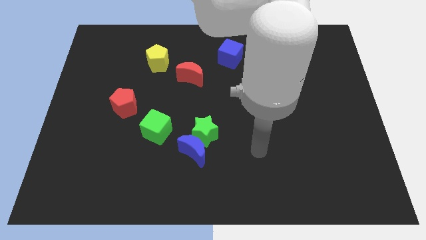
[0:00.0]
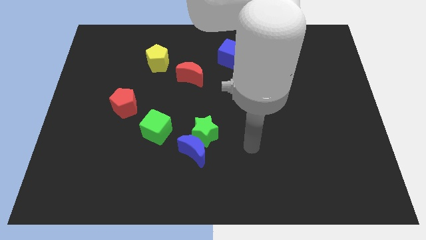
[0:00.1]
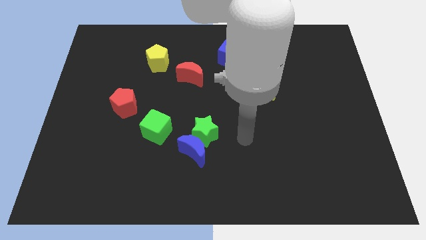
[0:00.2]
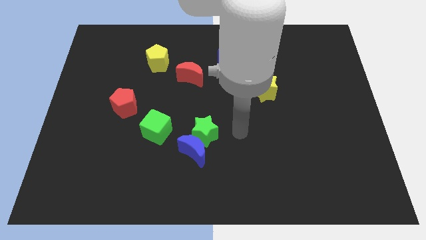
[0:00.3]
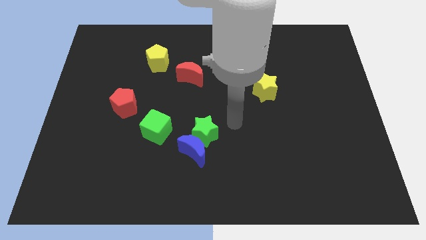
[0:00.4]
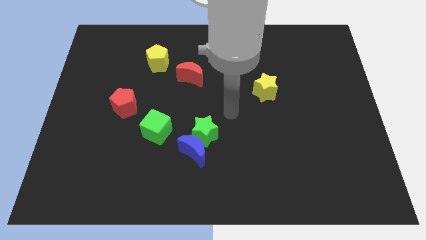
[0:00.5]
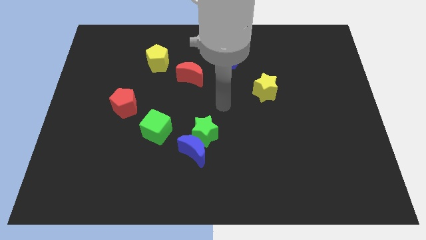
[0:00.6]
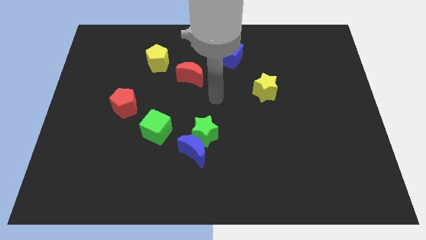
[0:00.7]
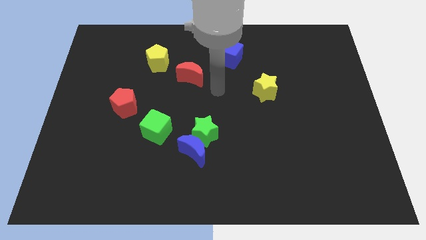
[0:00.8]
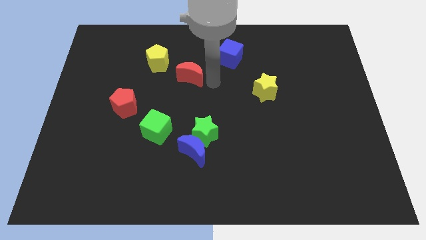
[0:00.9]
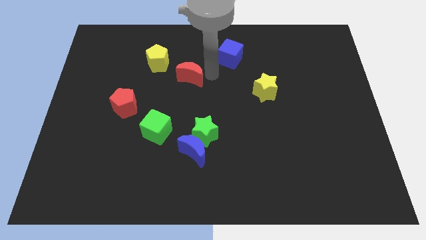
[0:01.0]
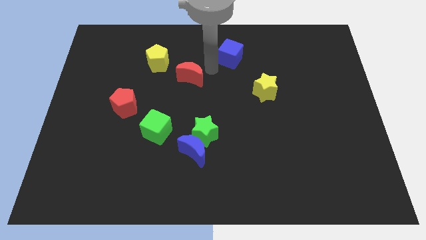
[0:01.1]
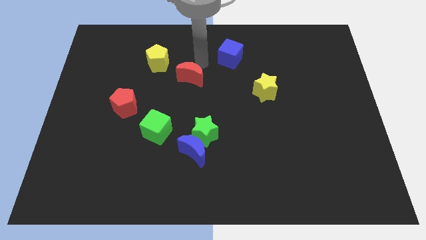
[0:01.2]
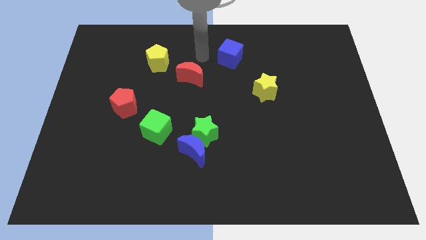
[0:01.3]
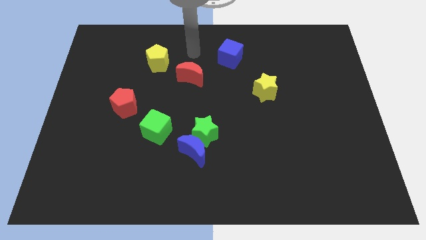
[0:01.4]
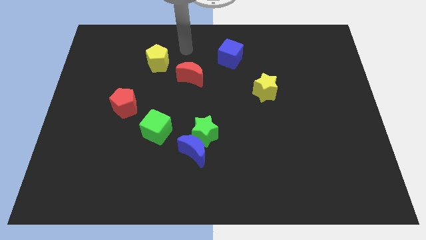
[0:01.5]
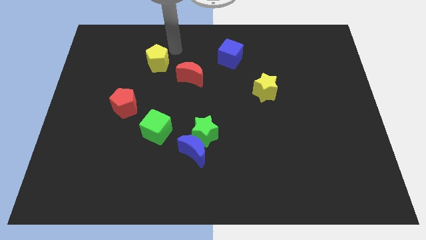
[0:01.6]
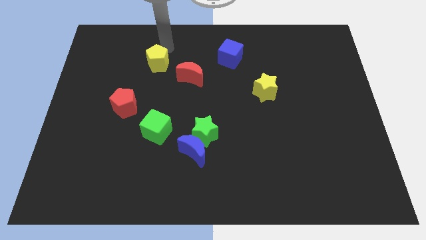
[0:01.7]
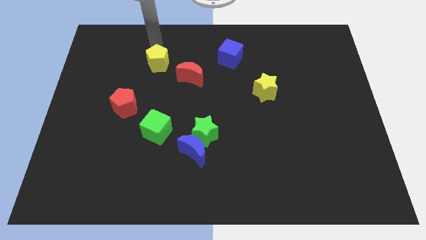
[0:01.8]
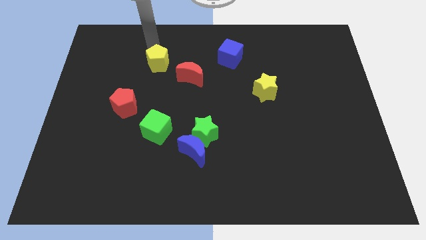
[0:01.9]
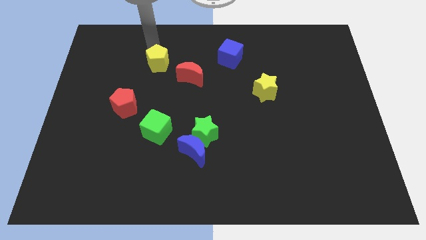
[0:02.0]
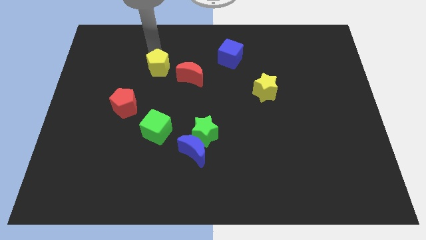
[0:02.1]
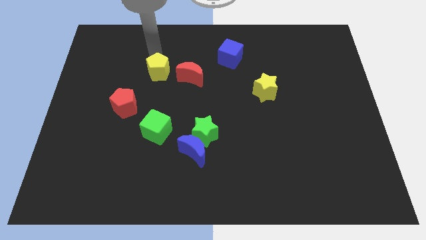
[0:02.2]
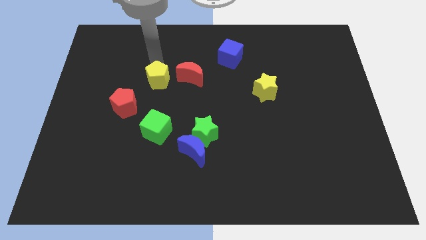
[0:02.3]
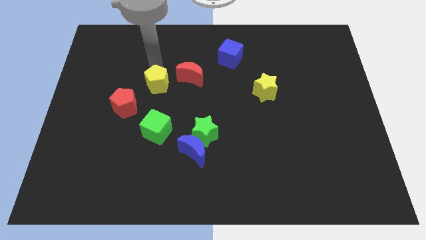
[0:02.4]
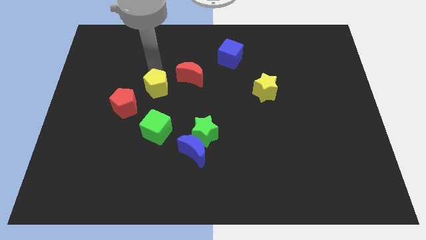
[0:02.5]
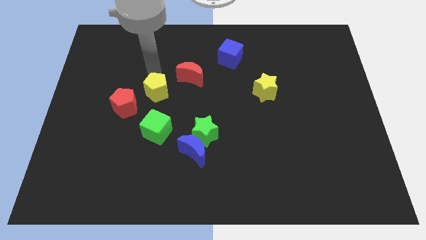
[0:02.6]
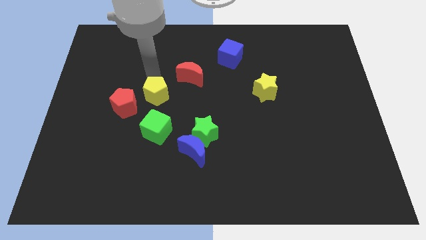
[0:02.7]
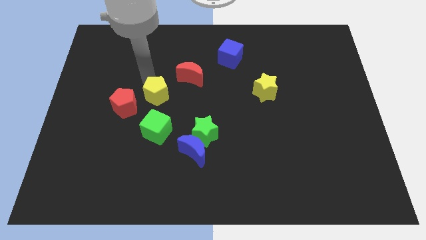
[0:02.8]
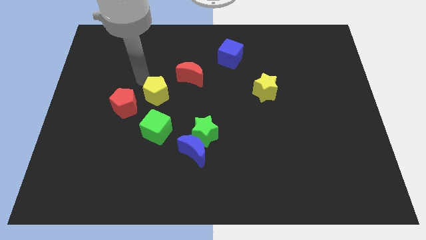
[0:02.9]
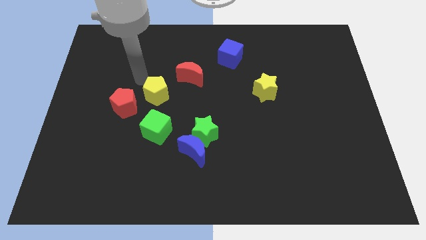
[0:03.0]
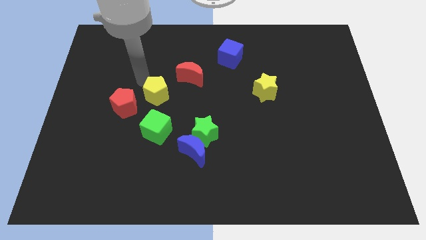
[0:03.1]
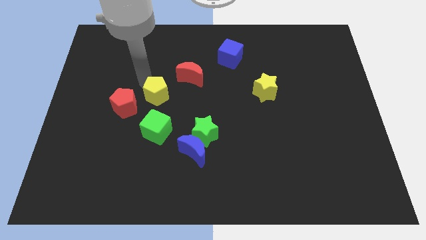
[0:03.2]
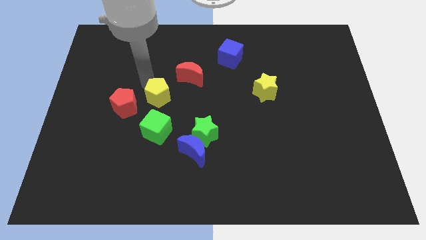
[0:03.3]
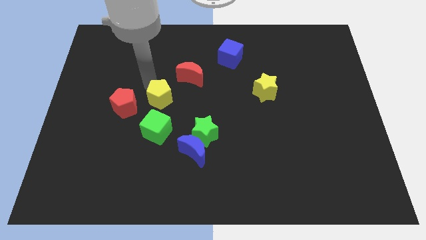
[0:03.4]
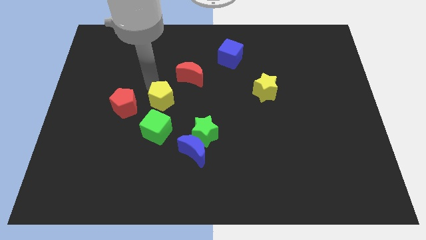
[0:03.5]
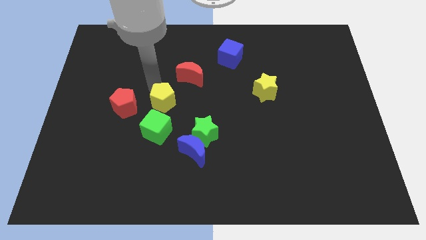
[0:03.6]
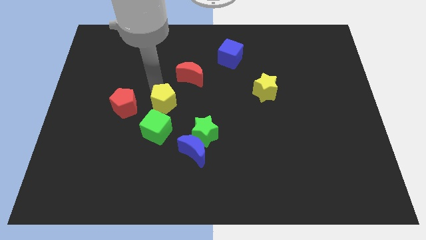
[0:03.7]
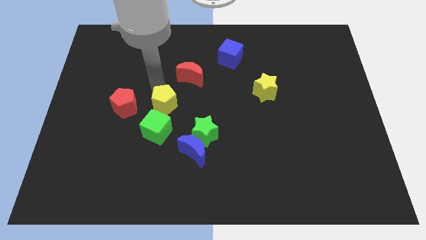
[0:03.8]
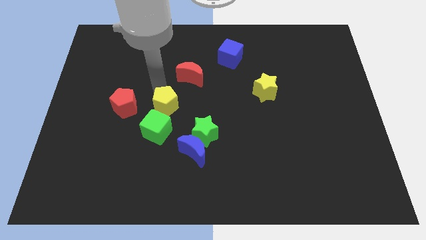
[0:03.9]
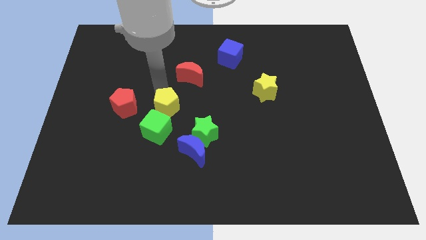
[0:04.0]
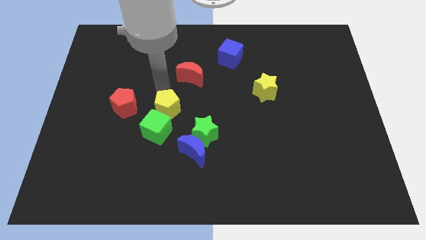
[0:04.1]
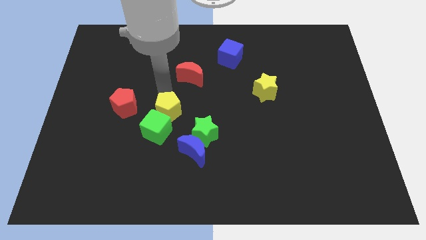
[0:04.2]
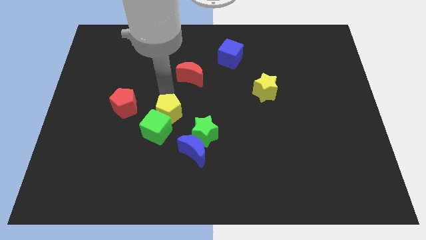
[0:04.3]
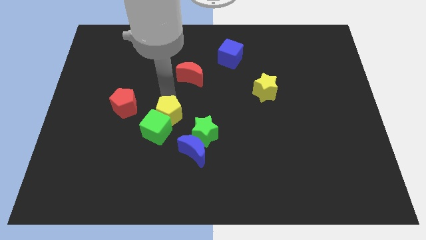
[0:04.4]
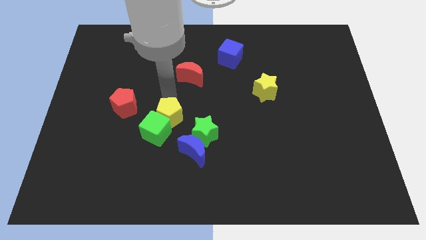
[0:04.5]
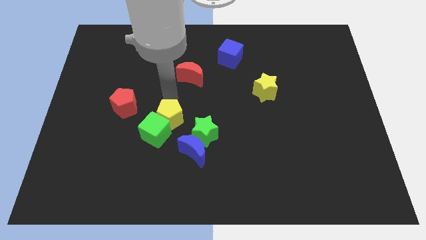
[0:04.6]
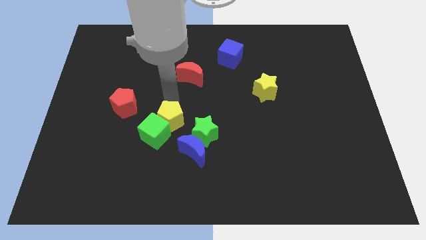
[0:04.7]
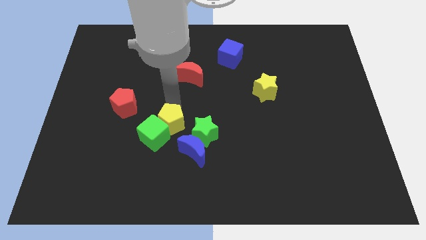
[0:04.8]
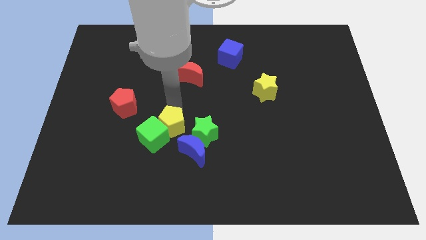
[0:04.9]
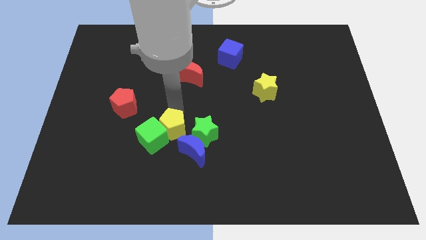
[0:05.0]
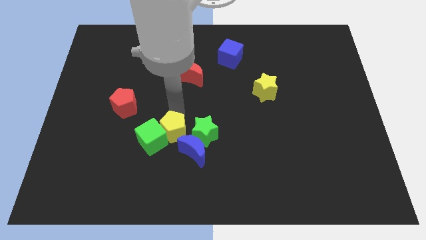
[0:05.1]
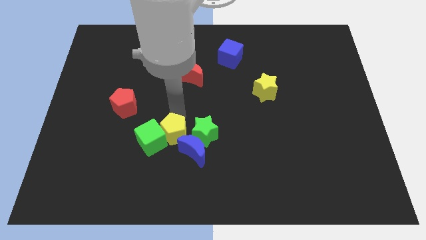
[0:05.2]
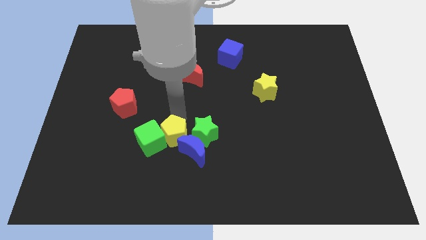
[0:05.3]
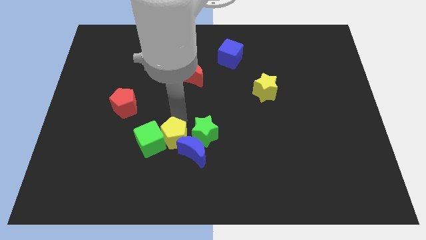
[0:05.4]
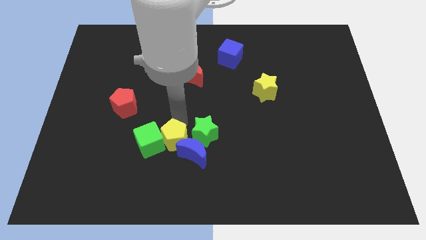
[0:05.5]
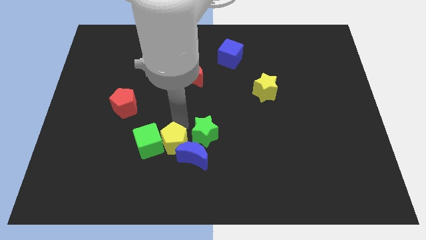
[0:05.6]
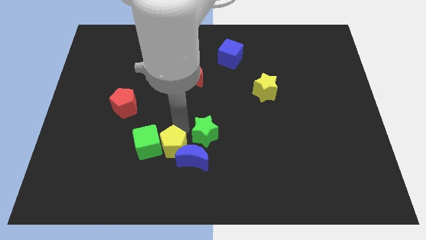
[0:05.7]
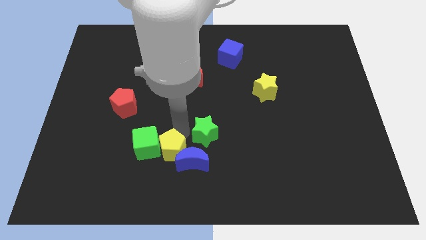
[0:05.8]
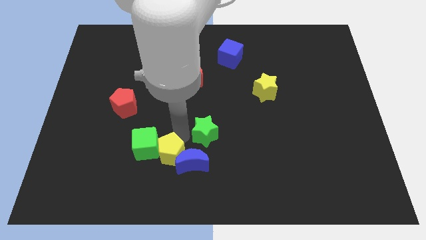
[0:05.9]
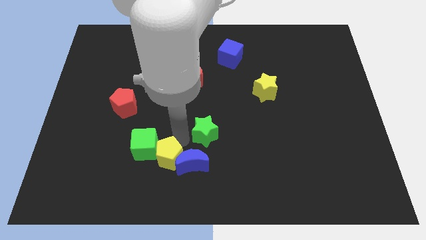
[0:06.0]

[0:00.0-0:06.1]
slide the yellow pentagon to the bottom left side of the blue moon

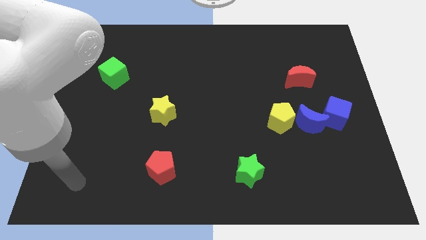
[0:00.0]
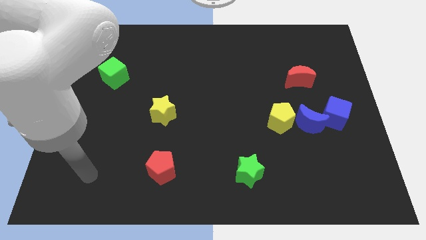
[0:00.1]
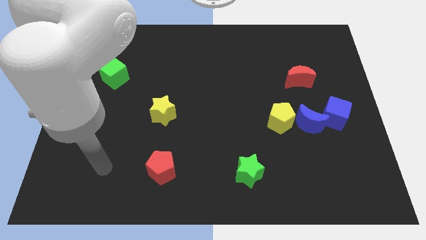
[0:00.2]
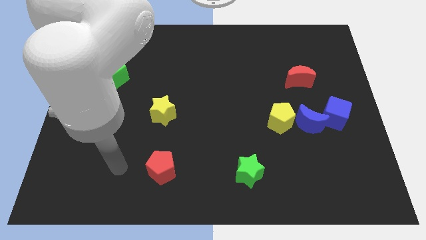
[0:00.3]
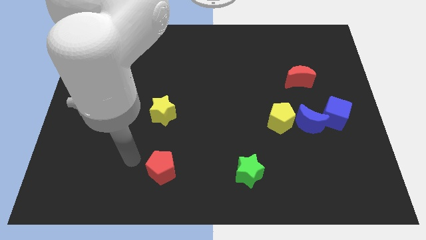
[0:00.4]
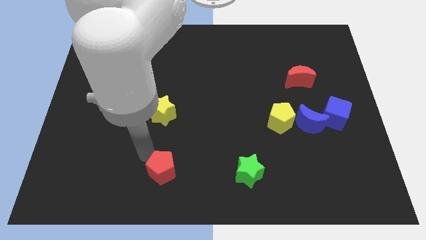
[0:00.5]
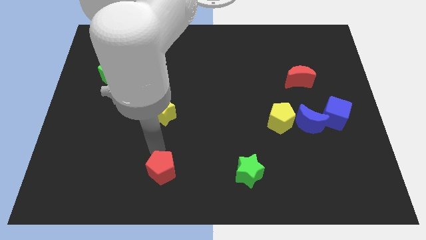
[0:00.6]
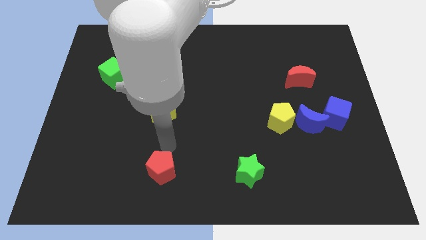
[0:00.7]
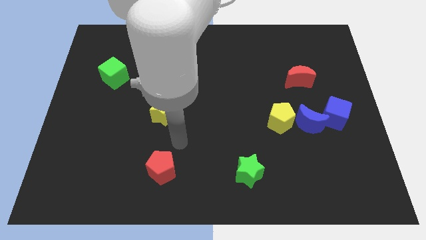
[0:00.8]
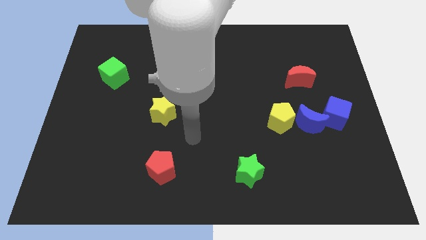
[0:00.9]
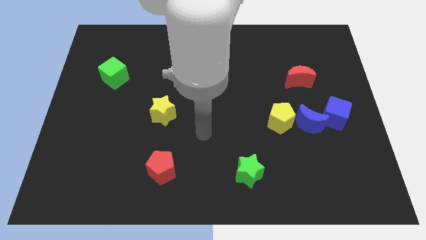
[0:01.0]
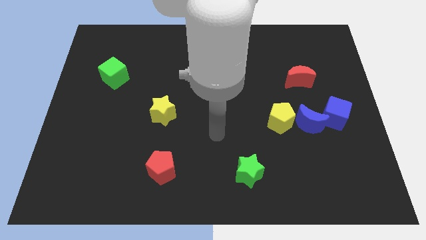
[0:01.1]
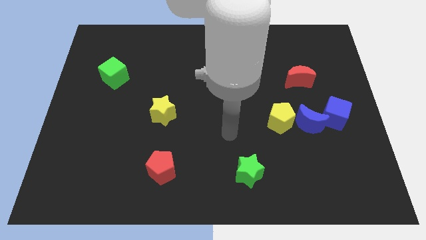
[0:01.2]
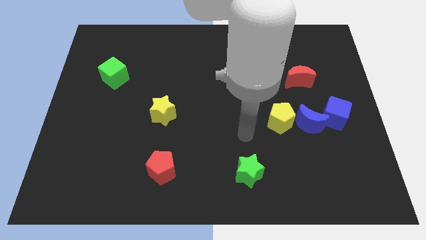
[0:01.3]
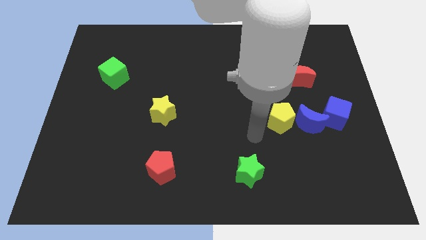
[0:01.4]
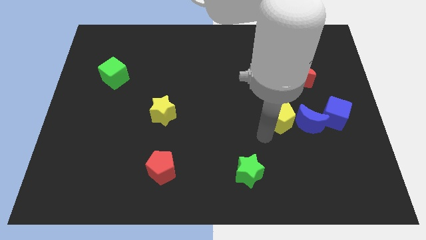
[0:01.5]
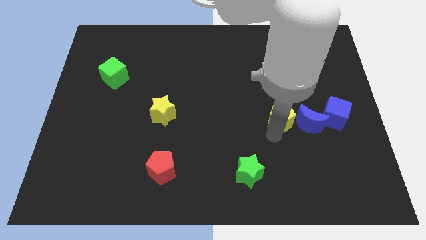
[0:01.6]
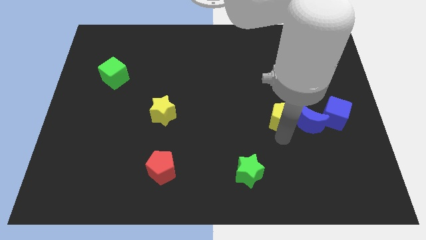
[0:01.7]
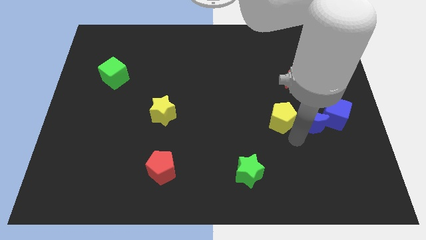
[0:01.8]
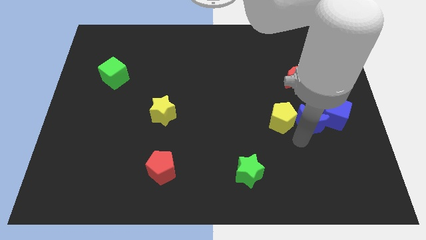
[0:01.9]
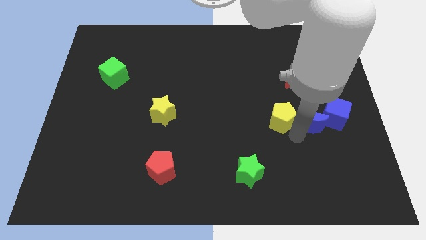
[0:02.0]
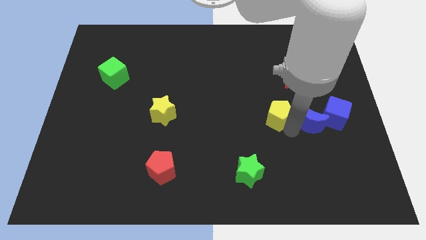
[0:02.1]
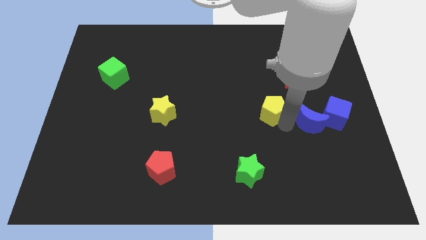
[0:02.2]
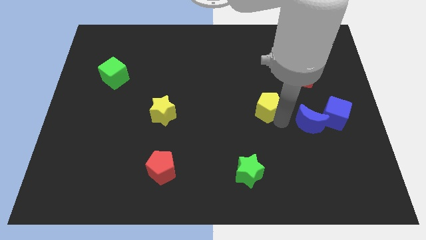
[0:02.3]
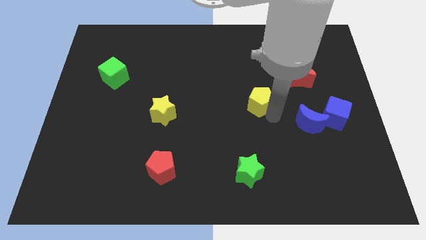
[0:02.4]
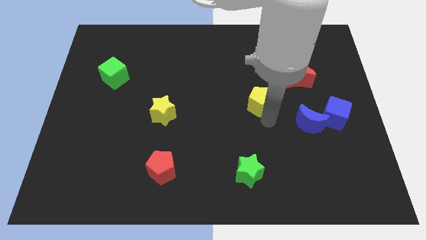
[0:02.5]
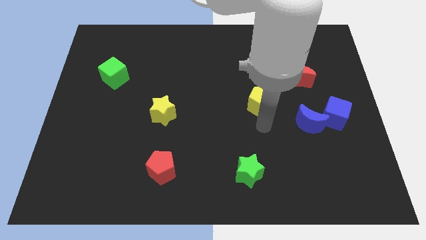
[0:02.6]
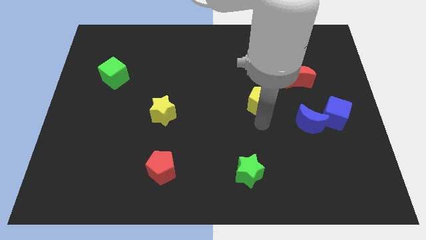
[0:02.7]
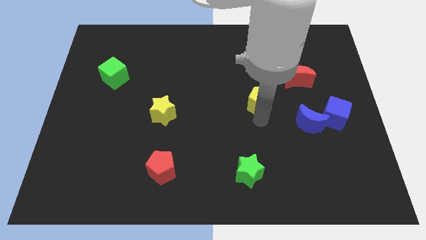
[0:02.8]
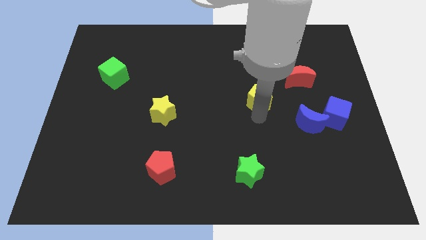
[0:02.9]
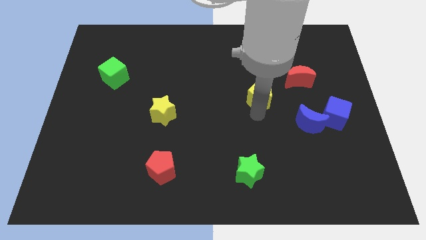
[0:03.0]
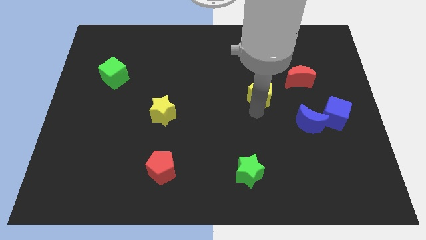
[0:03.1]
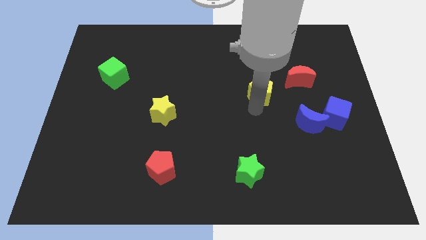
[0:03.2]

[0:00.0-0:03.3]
slide the yellow pentagon left of the red moon
